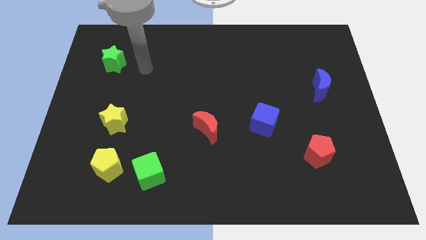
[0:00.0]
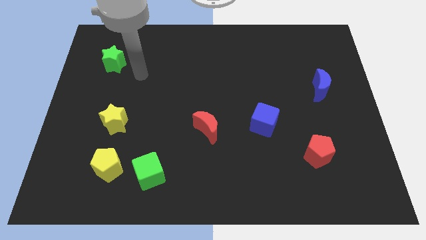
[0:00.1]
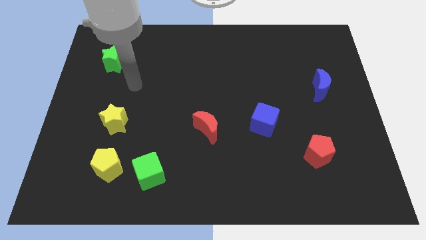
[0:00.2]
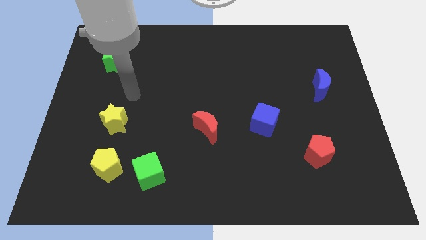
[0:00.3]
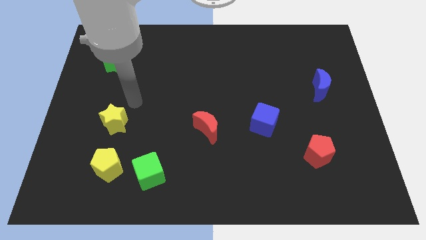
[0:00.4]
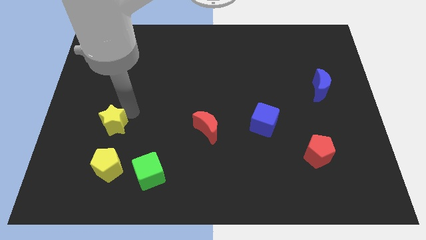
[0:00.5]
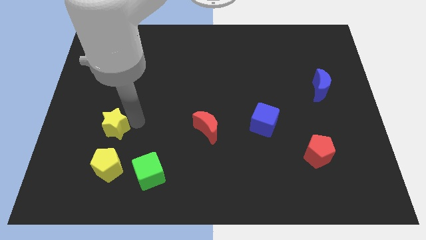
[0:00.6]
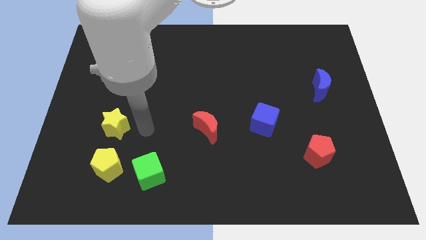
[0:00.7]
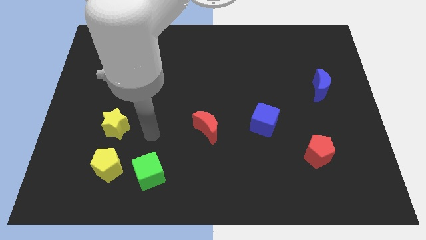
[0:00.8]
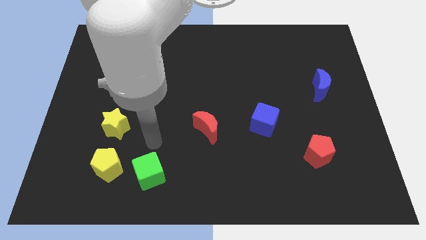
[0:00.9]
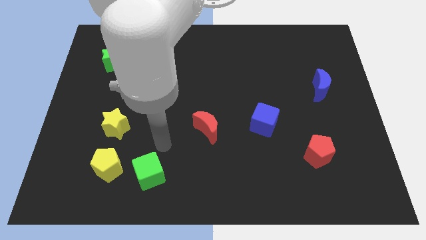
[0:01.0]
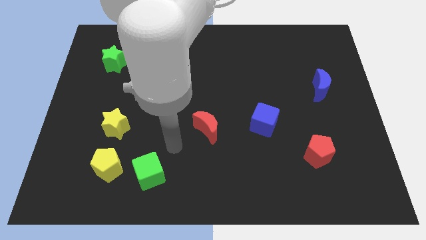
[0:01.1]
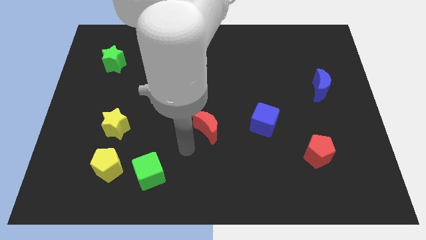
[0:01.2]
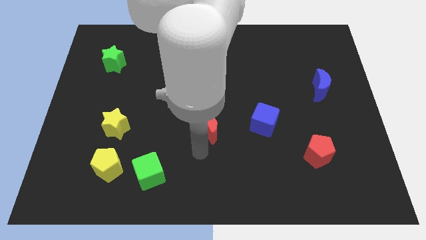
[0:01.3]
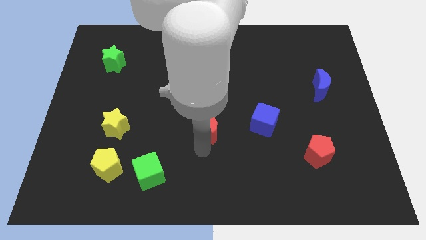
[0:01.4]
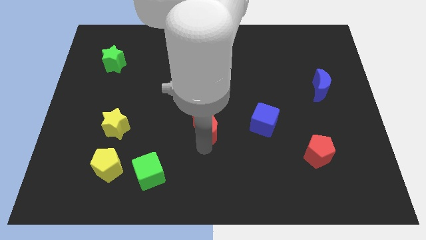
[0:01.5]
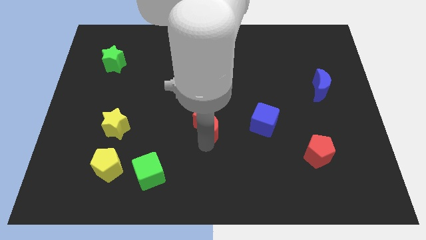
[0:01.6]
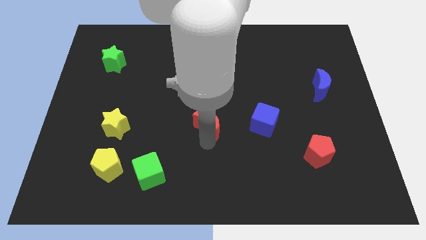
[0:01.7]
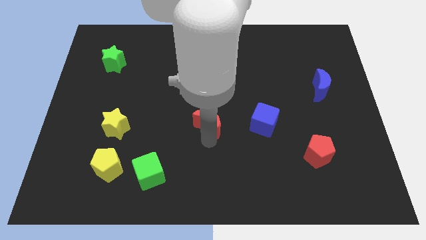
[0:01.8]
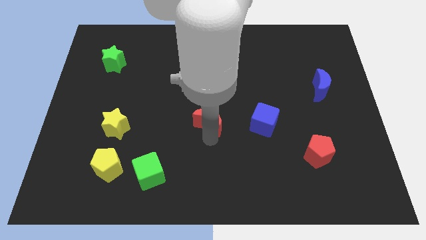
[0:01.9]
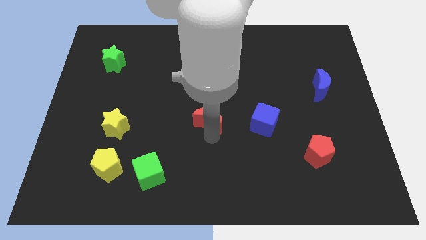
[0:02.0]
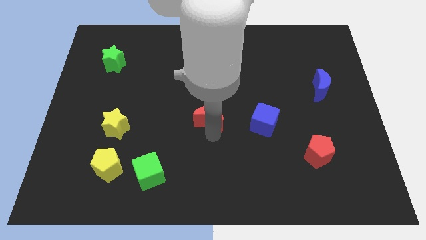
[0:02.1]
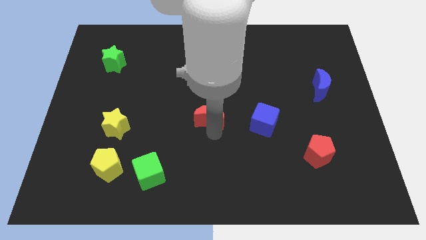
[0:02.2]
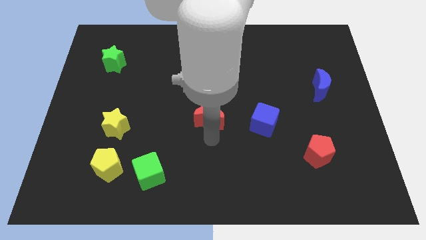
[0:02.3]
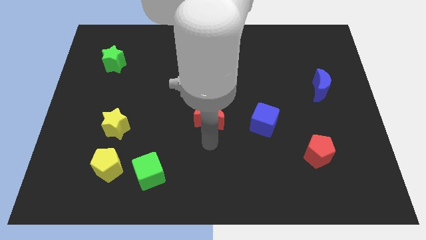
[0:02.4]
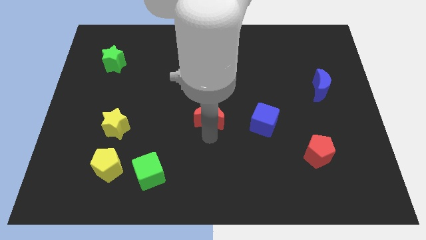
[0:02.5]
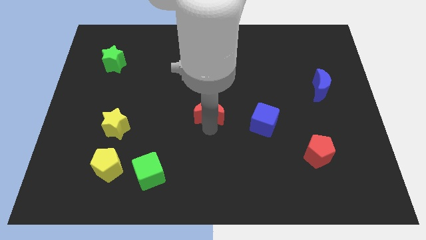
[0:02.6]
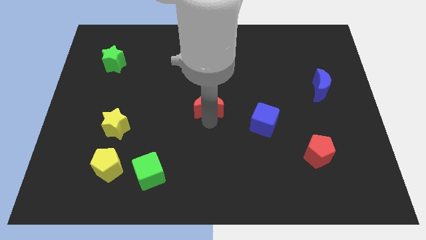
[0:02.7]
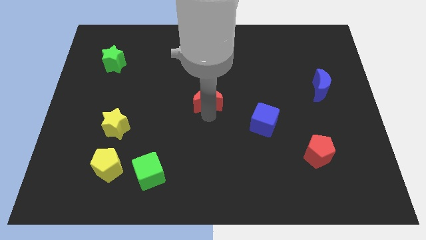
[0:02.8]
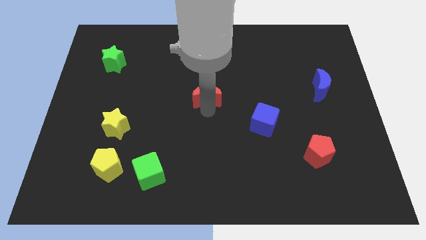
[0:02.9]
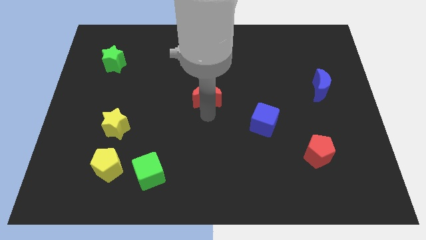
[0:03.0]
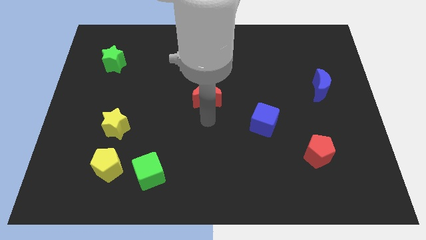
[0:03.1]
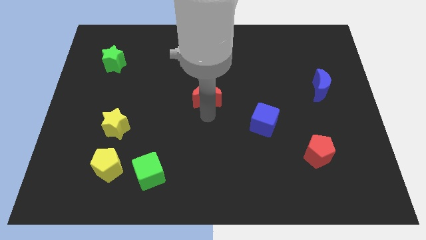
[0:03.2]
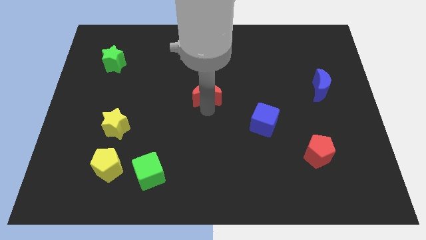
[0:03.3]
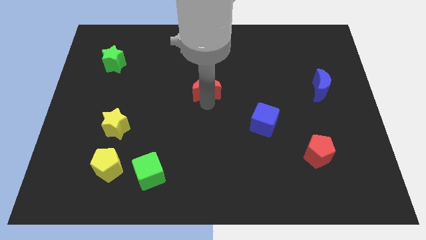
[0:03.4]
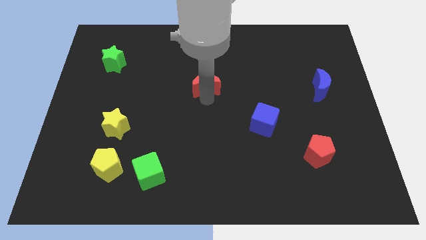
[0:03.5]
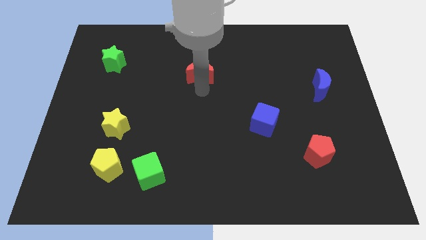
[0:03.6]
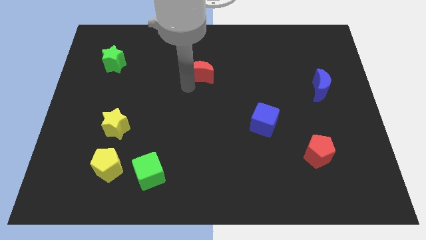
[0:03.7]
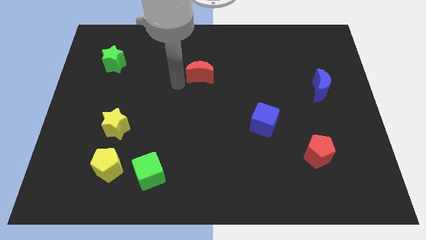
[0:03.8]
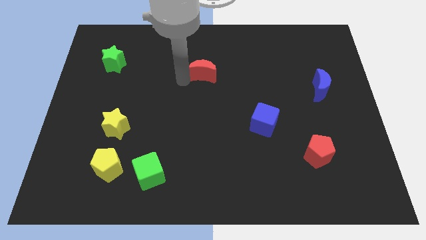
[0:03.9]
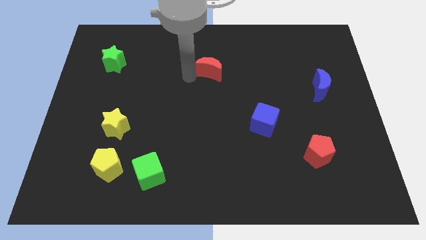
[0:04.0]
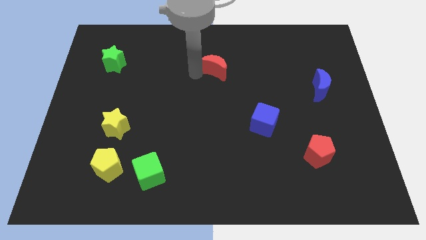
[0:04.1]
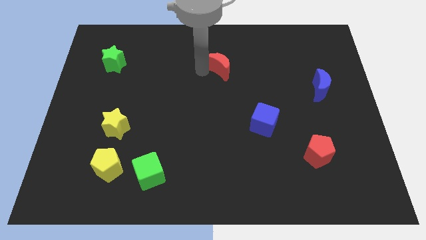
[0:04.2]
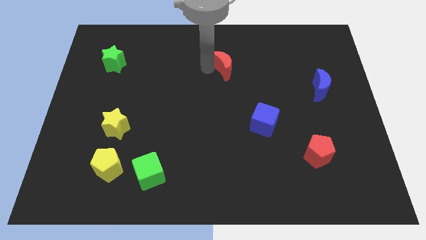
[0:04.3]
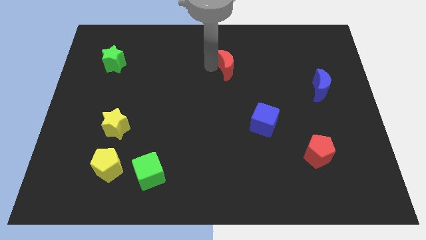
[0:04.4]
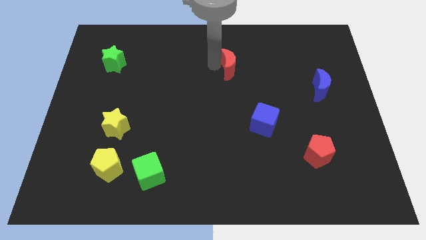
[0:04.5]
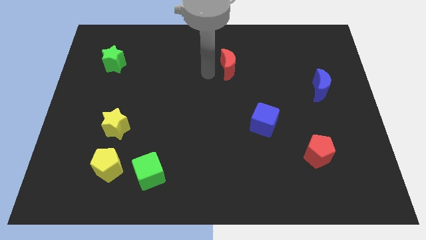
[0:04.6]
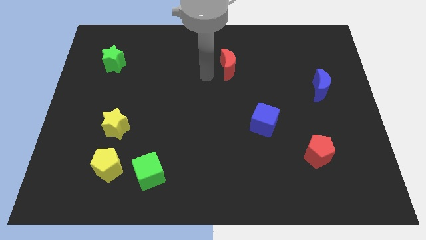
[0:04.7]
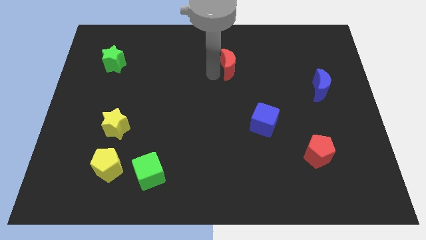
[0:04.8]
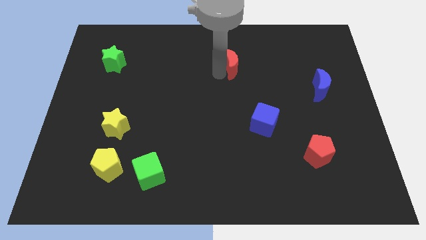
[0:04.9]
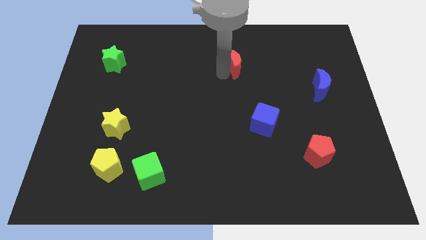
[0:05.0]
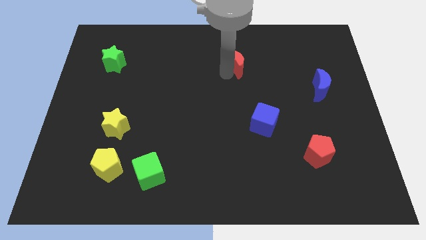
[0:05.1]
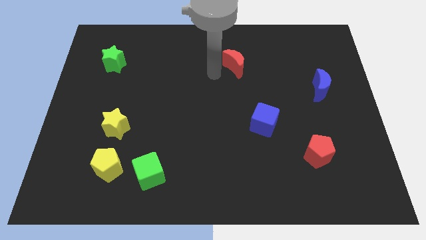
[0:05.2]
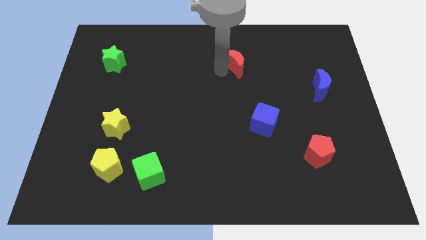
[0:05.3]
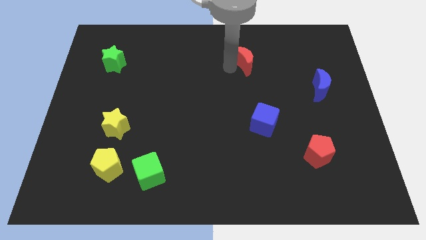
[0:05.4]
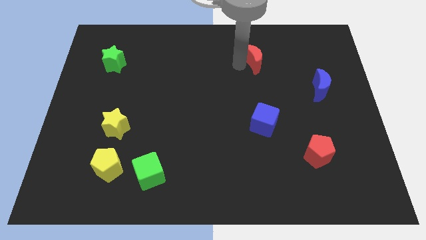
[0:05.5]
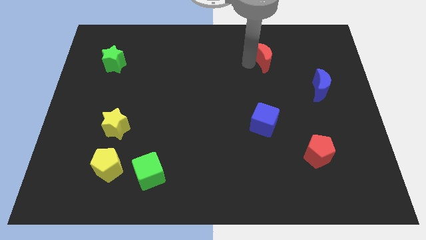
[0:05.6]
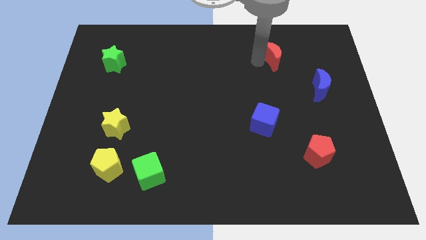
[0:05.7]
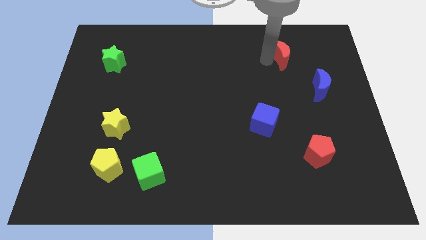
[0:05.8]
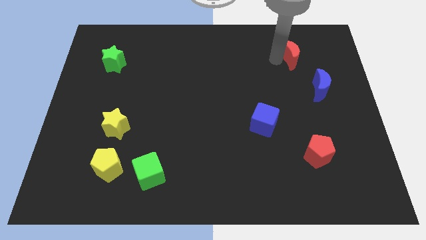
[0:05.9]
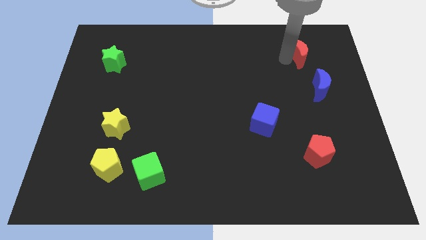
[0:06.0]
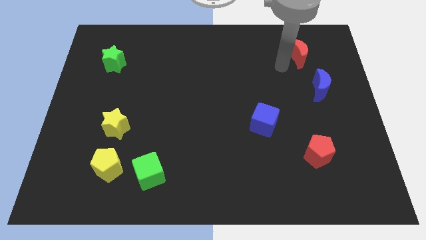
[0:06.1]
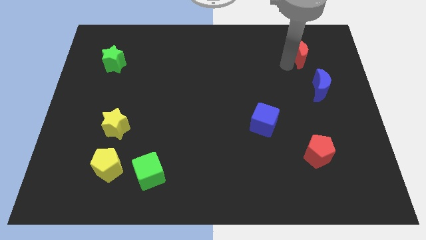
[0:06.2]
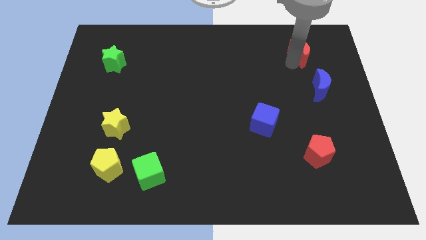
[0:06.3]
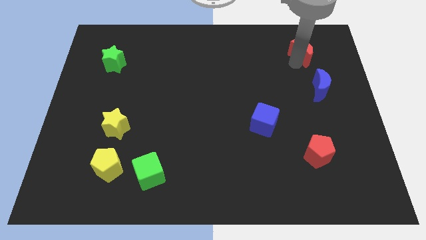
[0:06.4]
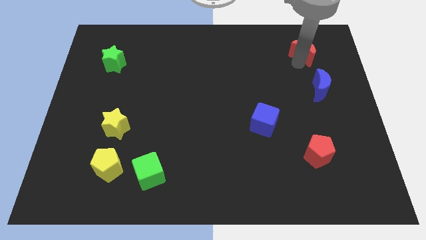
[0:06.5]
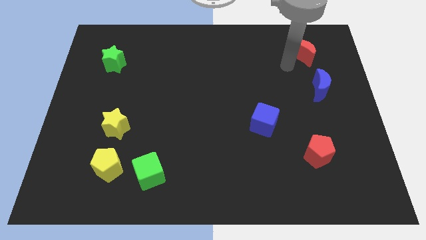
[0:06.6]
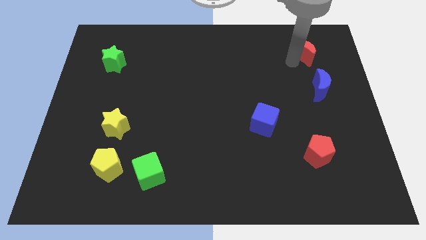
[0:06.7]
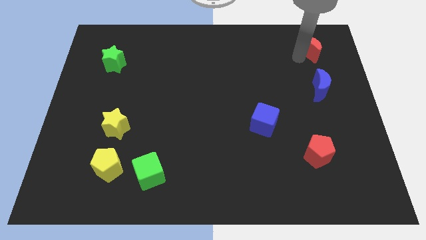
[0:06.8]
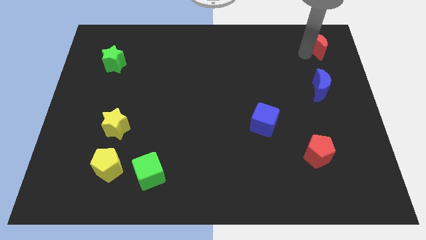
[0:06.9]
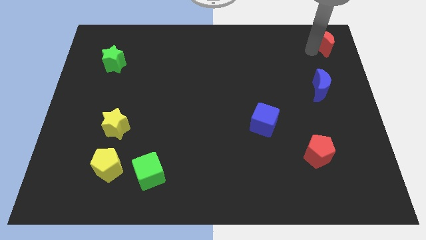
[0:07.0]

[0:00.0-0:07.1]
put the red moon to the upper right corner
